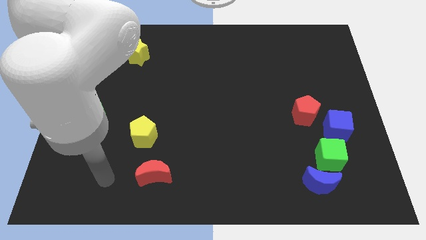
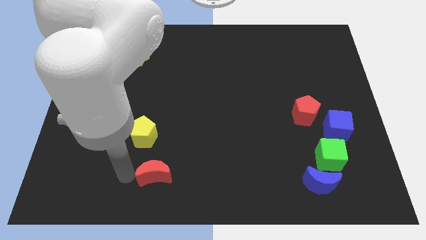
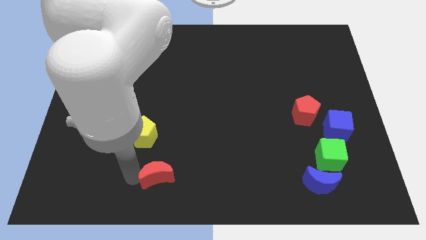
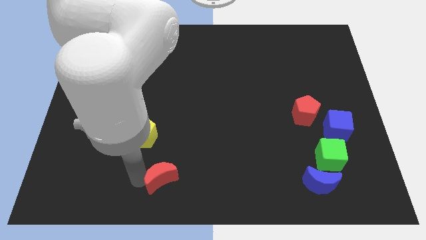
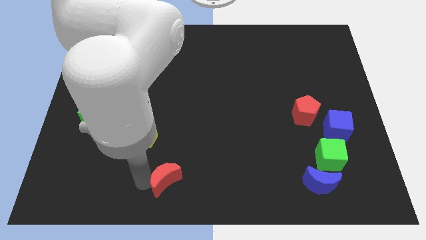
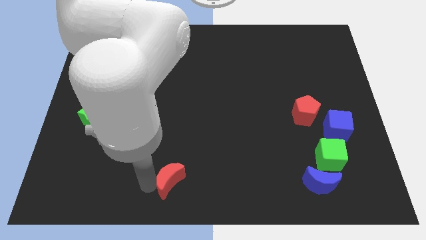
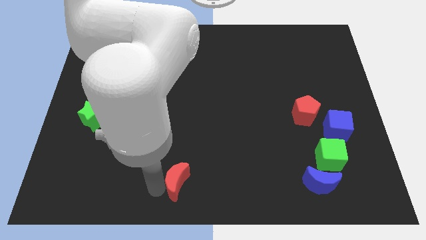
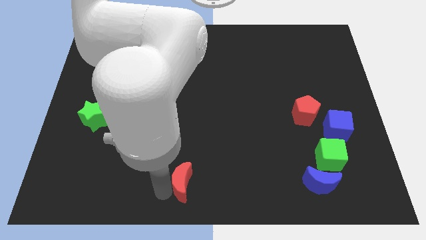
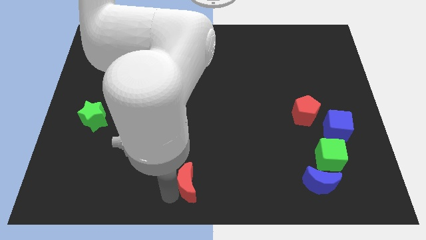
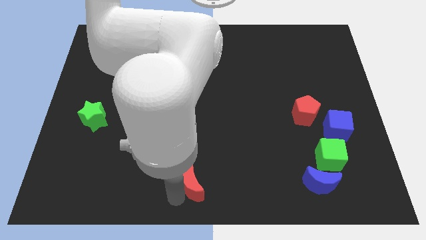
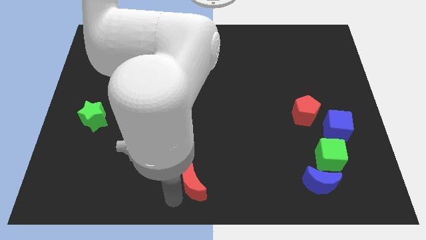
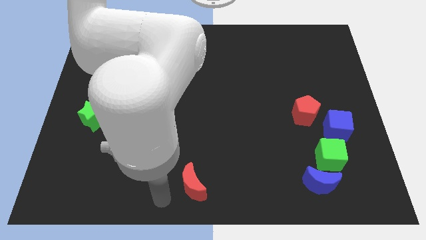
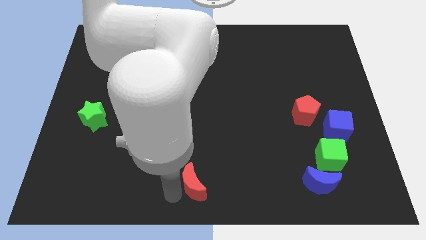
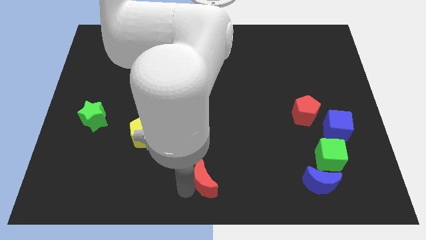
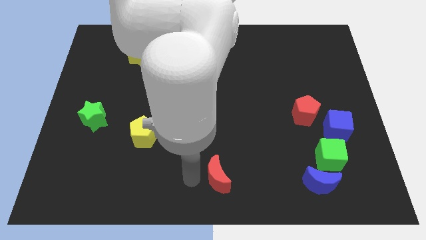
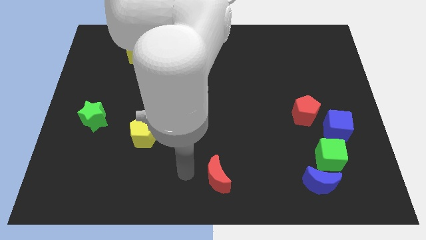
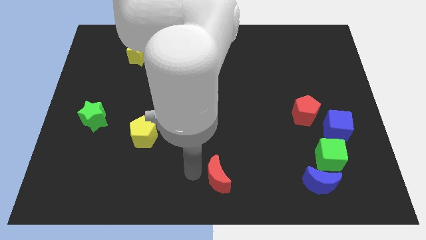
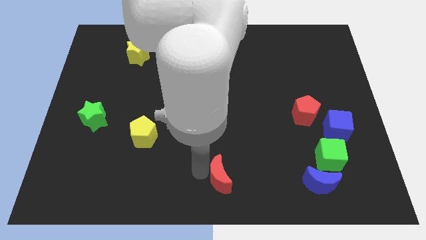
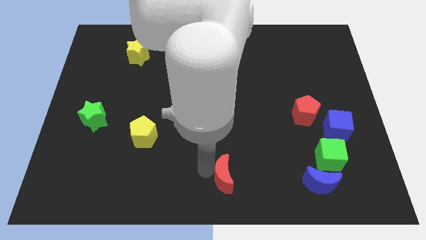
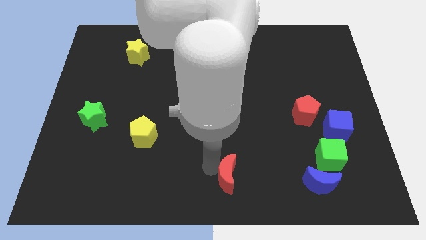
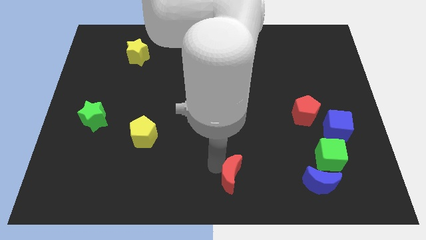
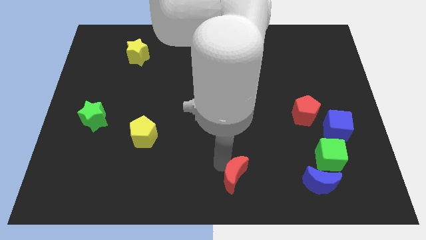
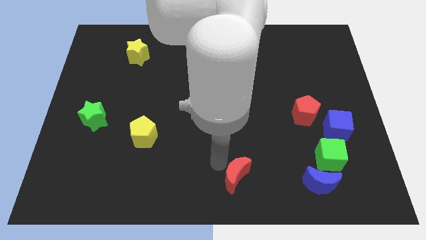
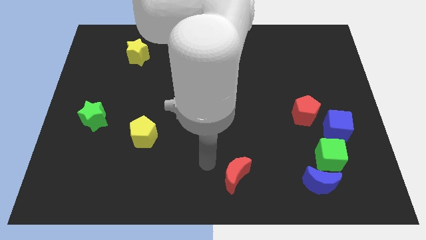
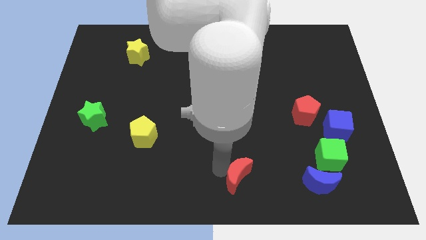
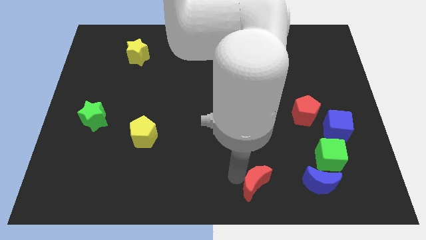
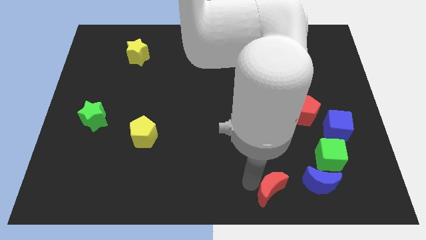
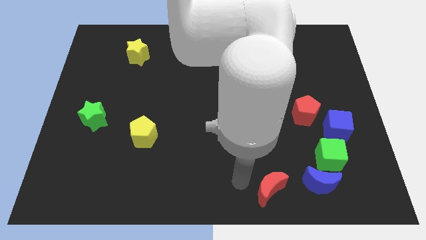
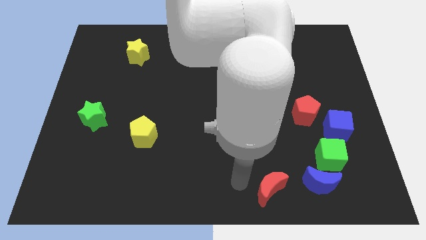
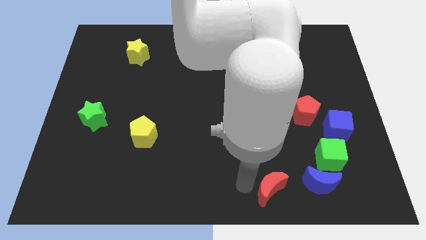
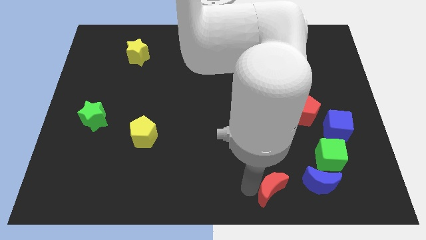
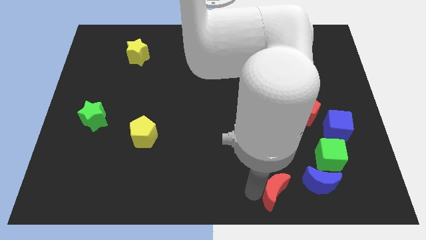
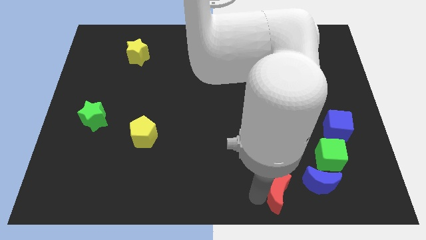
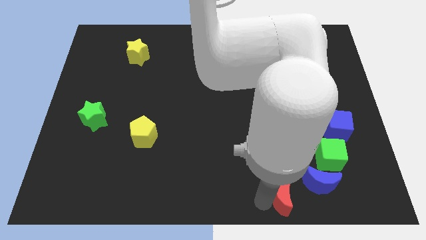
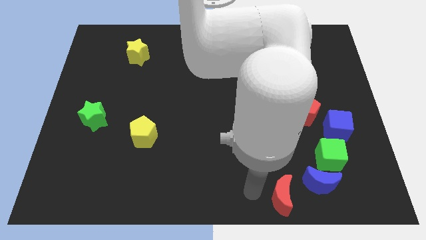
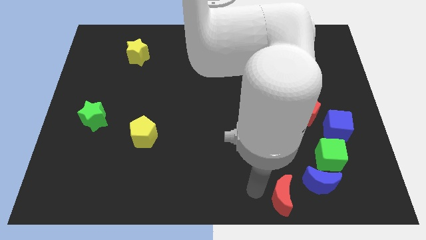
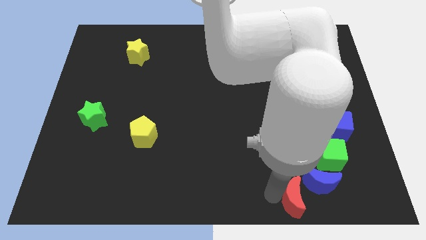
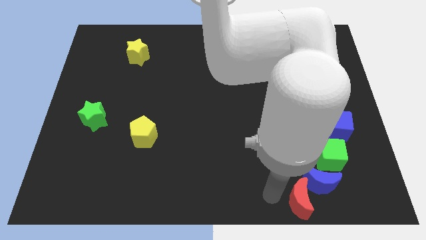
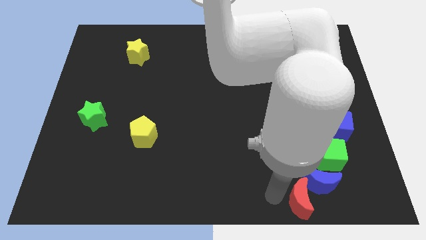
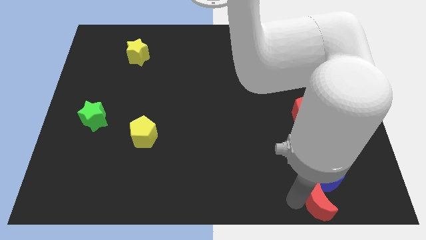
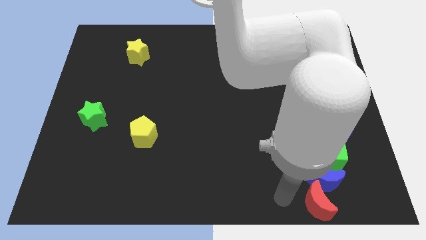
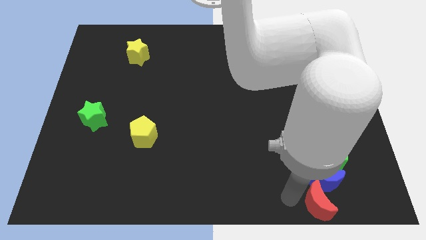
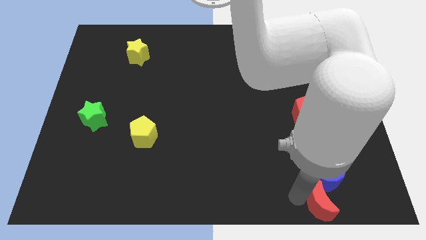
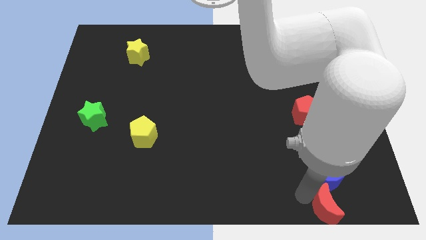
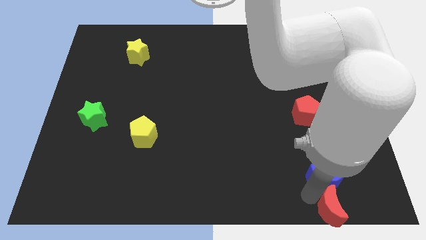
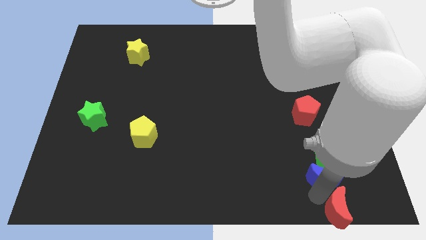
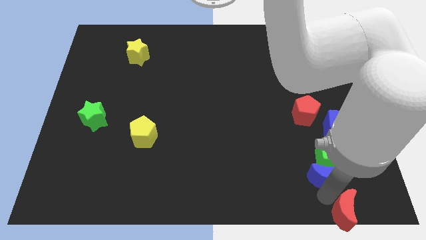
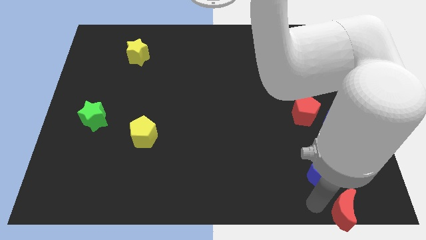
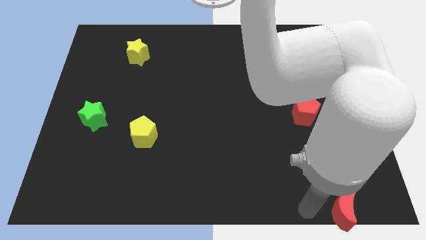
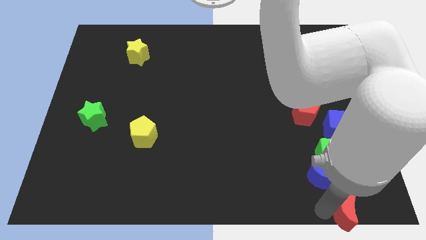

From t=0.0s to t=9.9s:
slide the red moon to the bottom right of the board

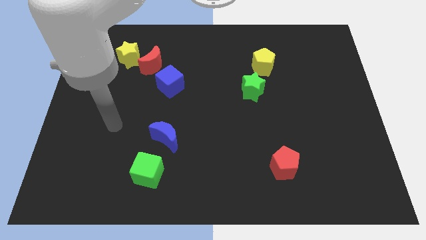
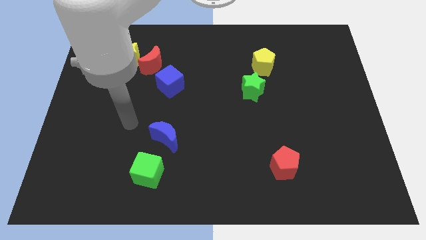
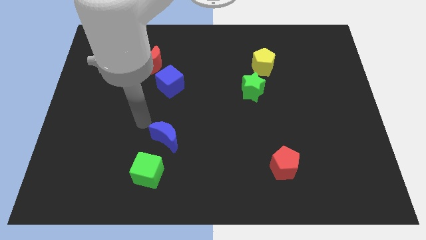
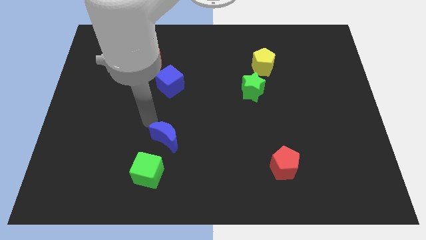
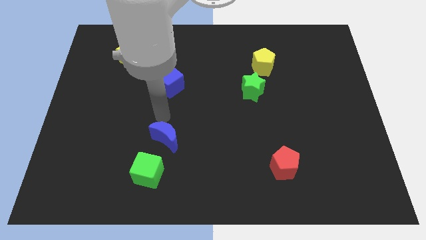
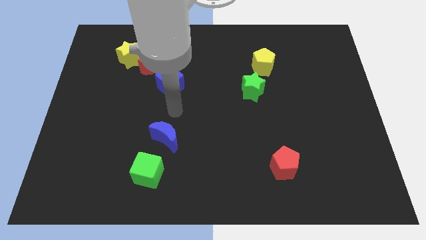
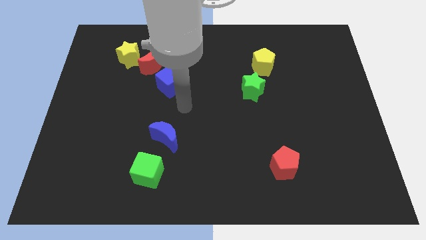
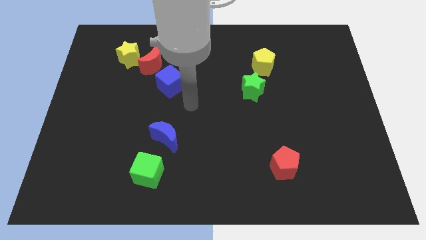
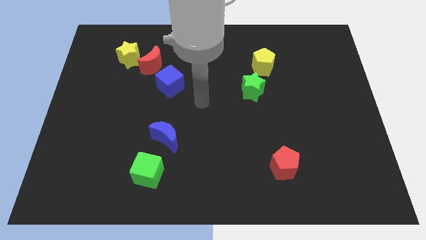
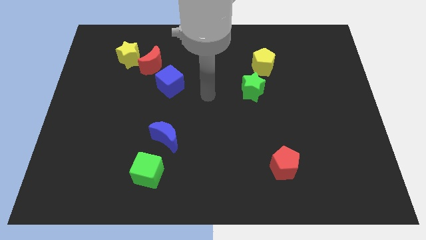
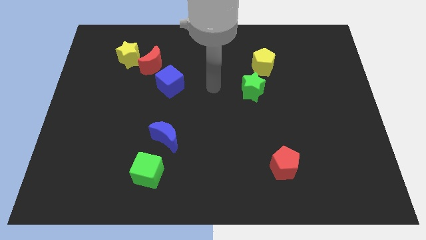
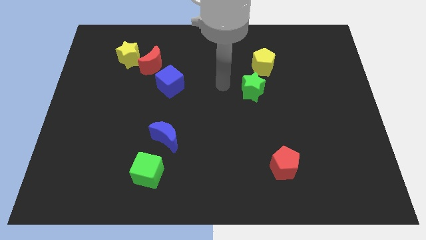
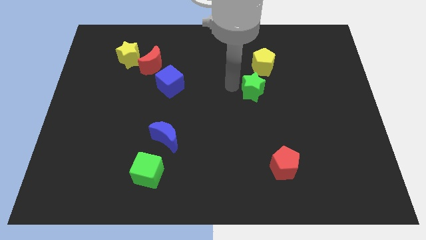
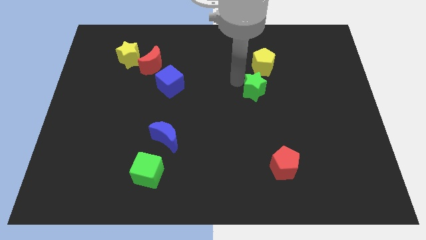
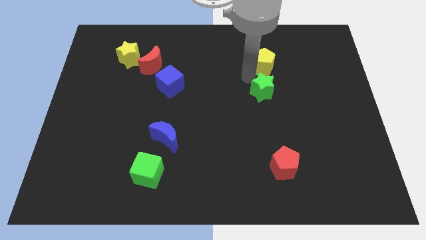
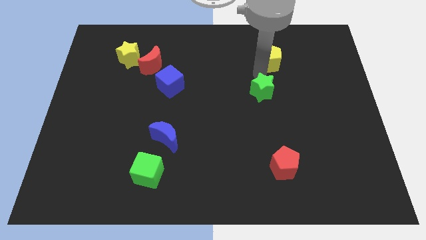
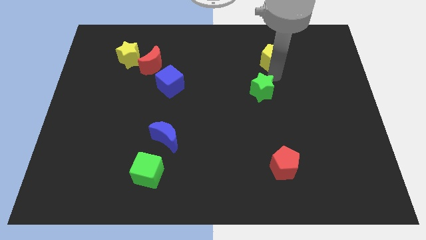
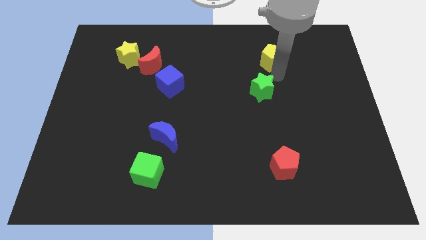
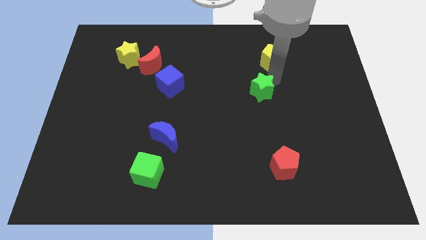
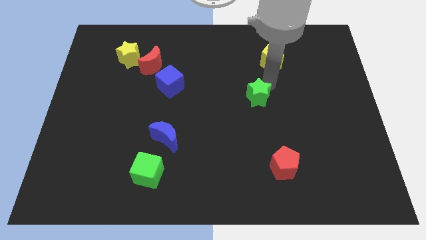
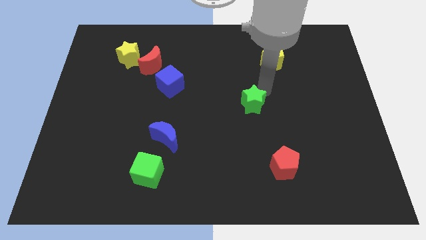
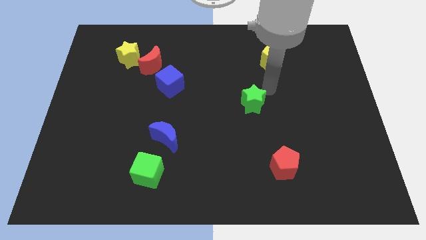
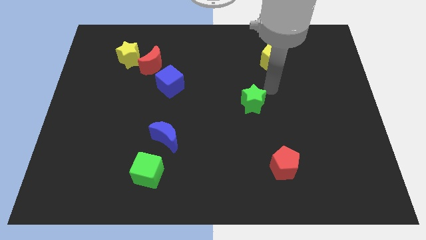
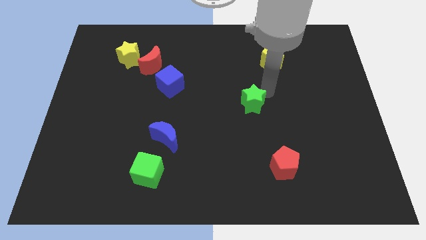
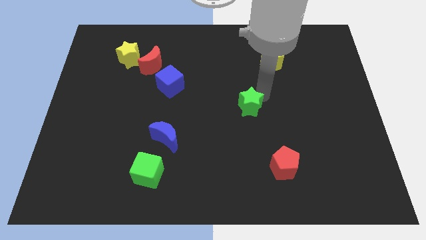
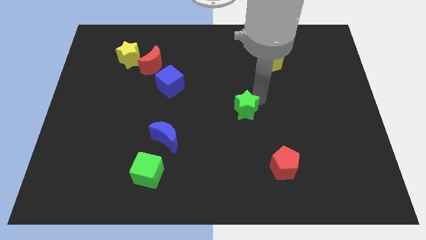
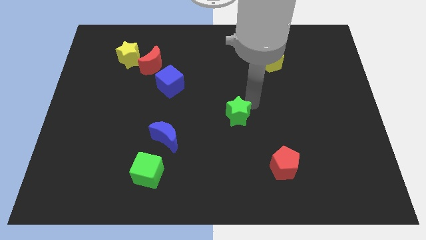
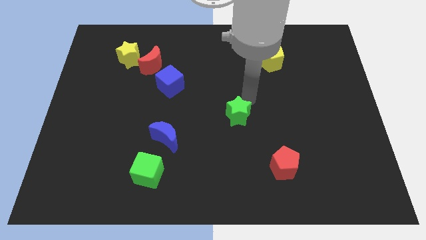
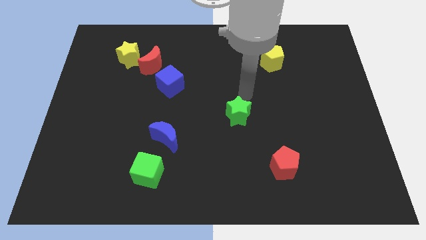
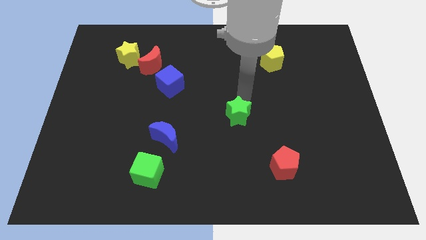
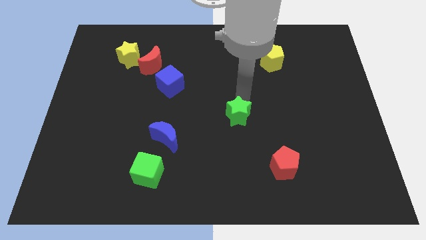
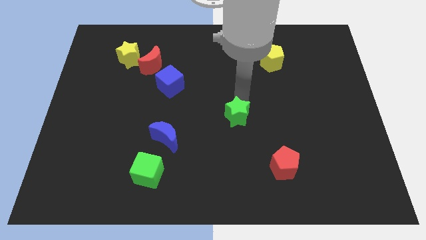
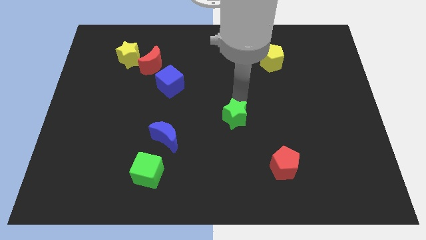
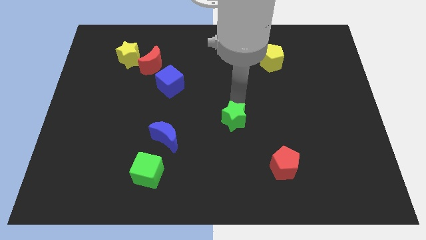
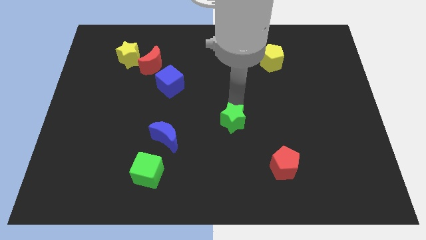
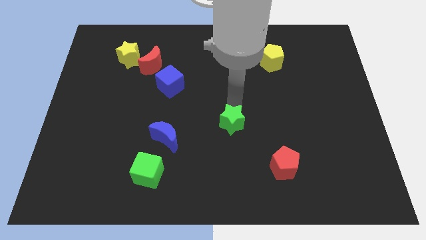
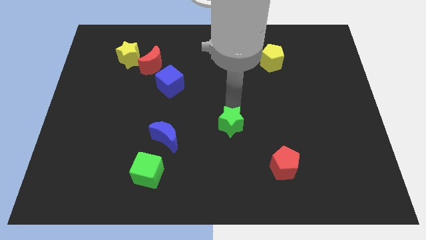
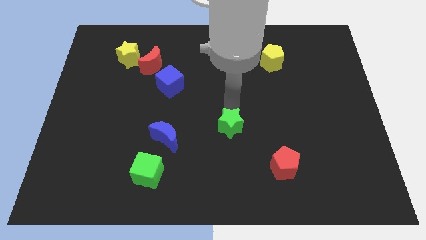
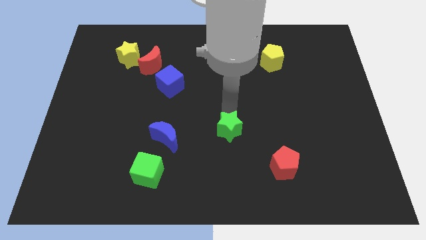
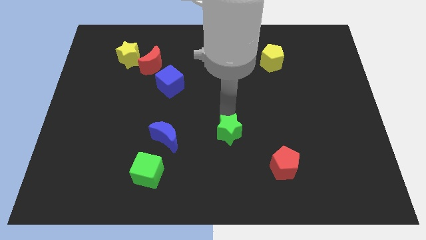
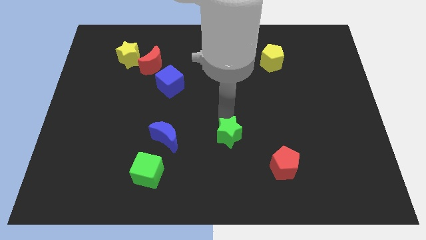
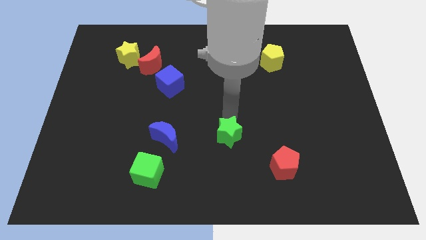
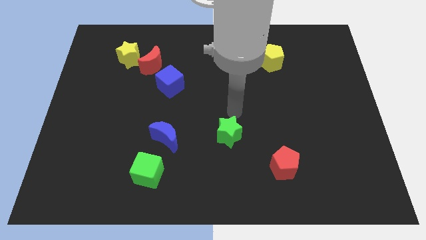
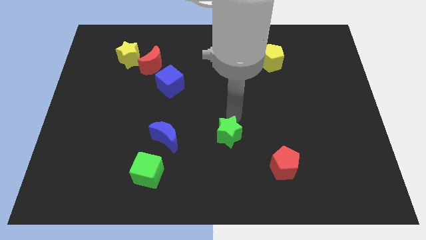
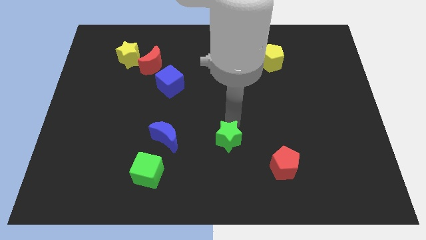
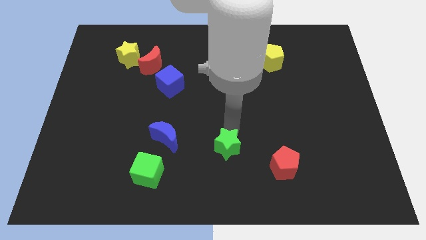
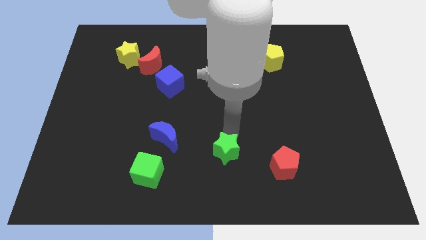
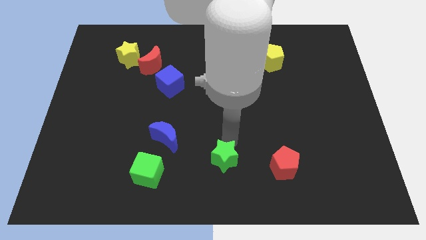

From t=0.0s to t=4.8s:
slide the green star to the bottom
